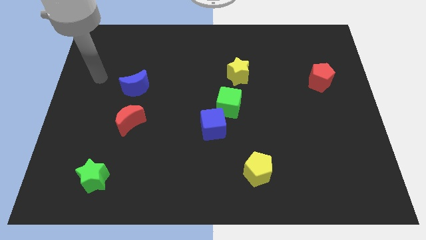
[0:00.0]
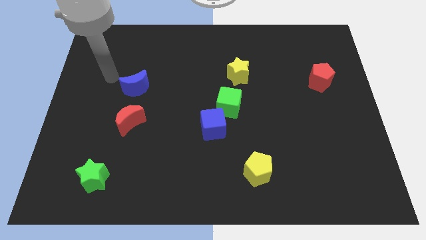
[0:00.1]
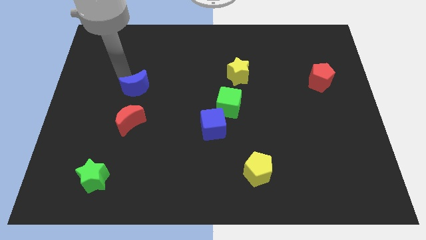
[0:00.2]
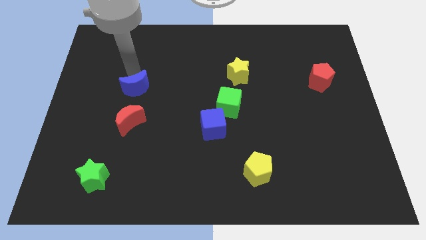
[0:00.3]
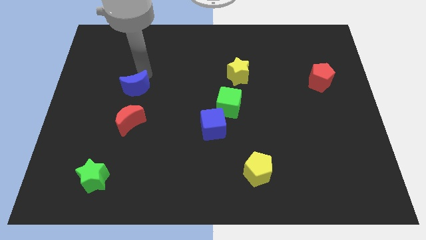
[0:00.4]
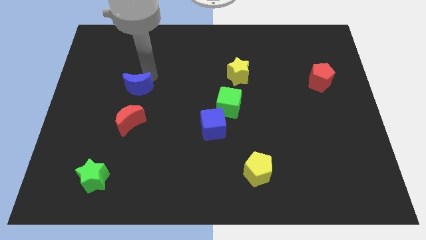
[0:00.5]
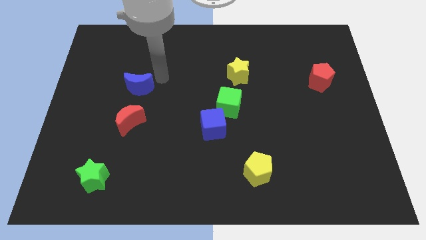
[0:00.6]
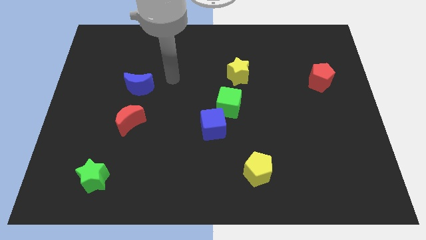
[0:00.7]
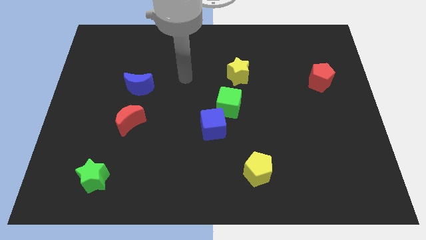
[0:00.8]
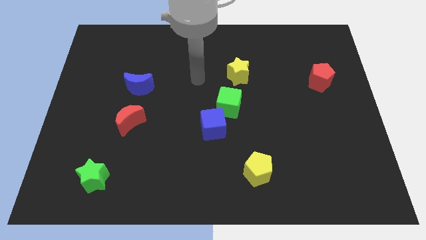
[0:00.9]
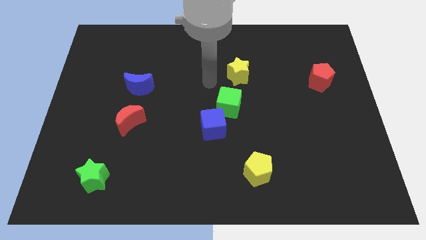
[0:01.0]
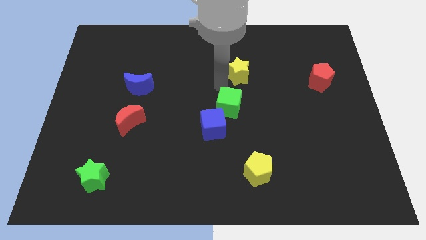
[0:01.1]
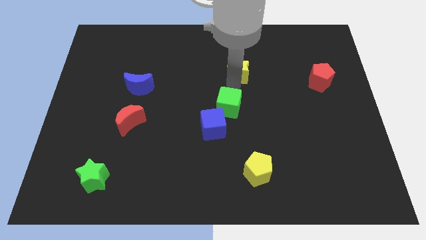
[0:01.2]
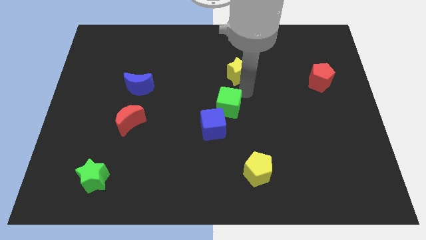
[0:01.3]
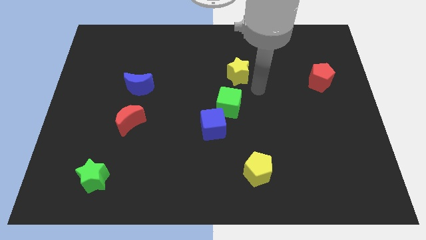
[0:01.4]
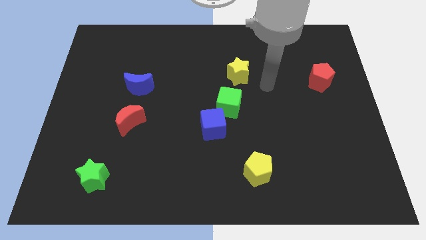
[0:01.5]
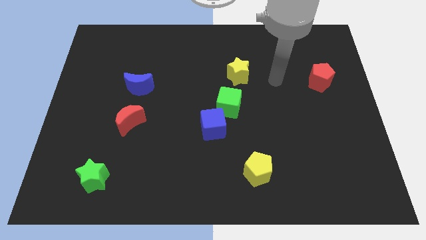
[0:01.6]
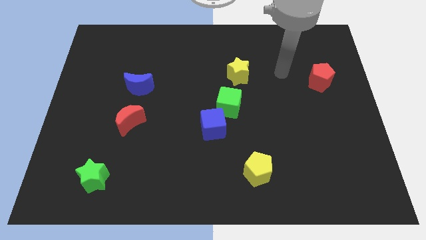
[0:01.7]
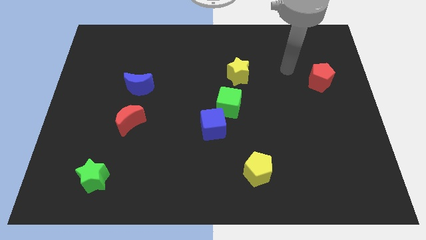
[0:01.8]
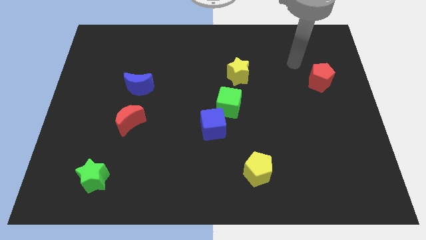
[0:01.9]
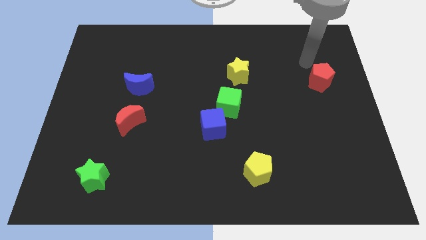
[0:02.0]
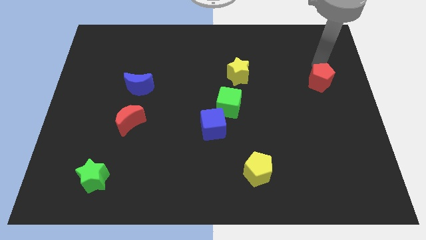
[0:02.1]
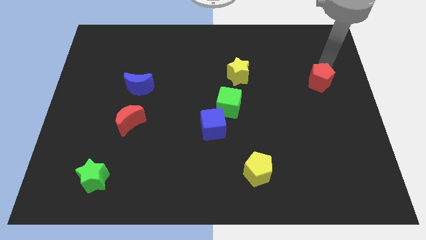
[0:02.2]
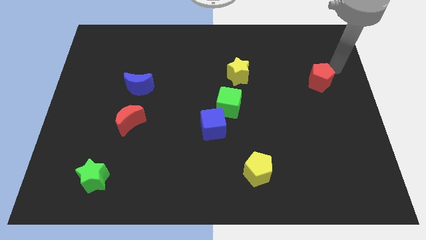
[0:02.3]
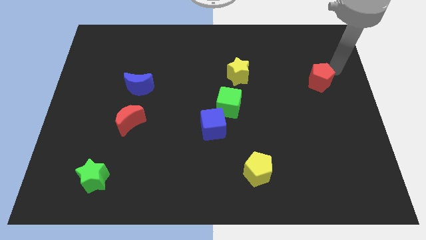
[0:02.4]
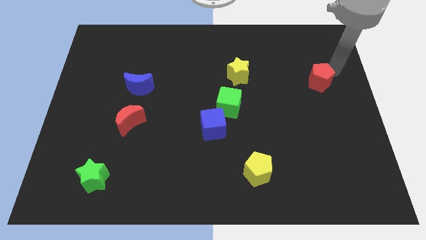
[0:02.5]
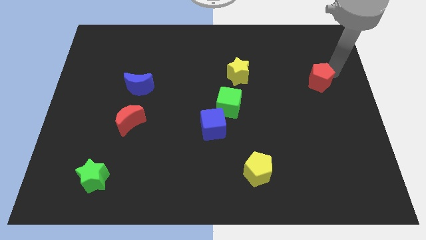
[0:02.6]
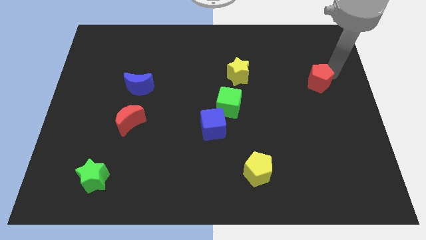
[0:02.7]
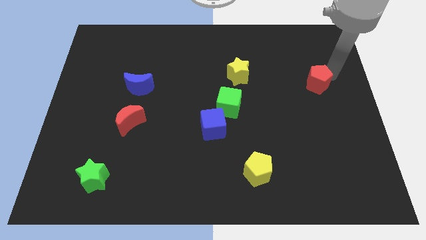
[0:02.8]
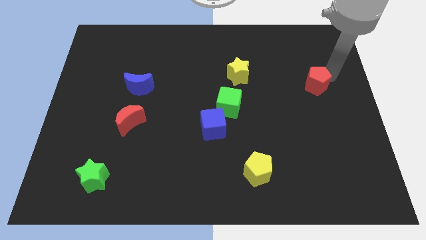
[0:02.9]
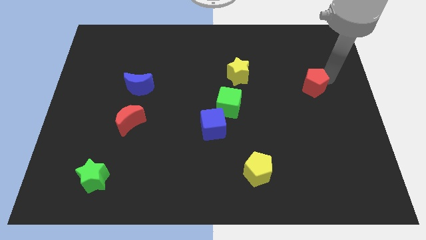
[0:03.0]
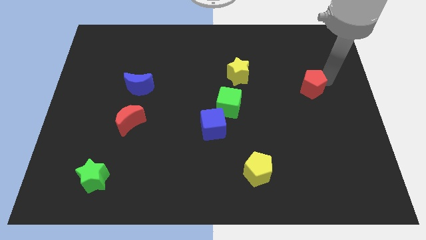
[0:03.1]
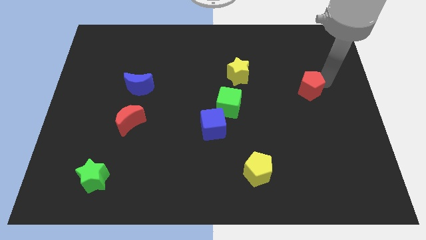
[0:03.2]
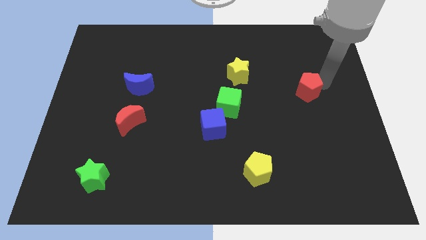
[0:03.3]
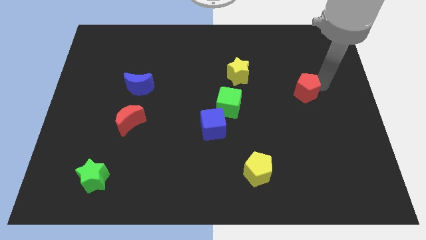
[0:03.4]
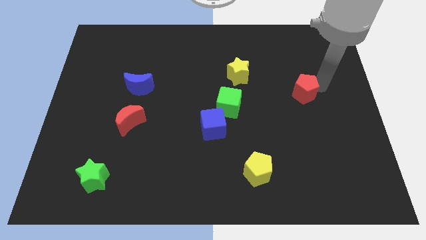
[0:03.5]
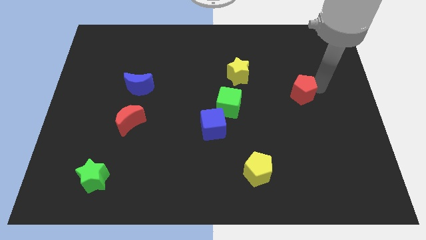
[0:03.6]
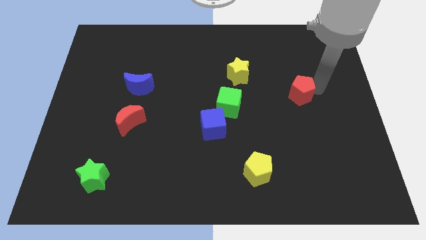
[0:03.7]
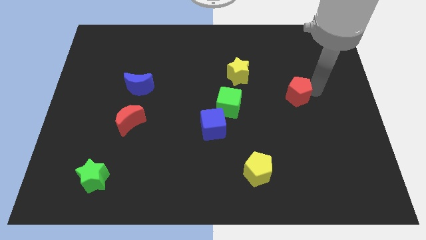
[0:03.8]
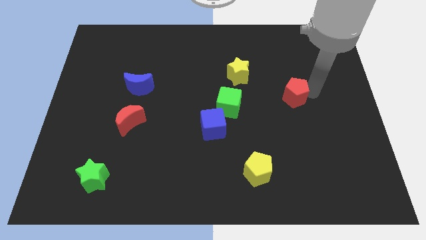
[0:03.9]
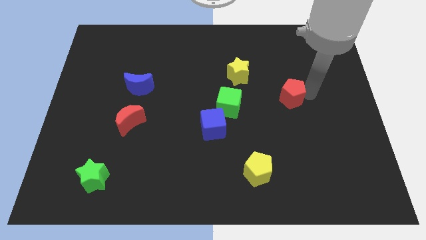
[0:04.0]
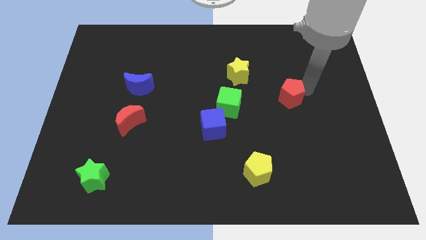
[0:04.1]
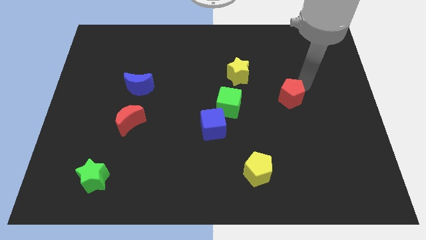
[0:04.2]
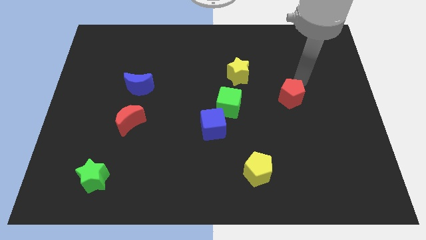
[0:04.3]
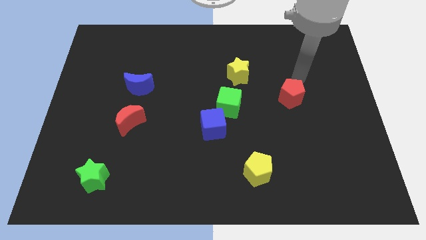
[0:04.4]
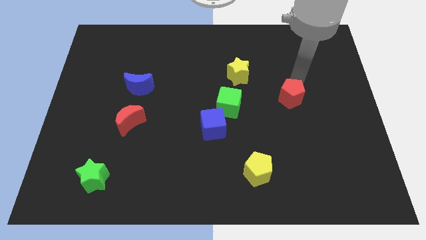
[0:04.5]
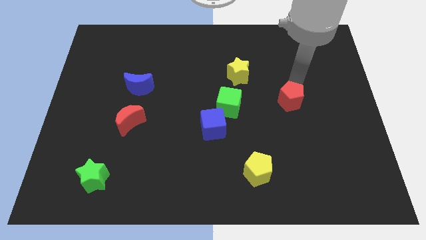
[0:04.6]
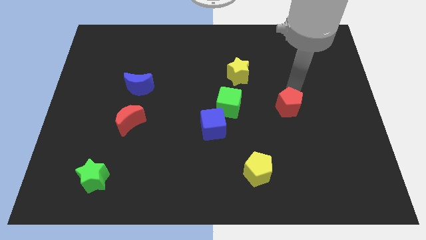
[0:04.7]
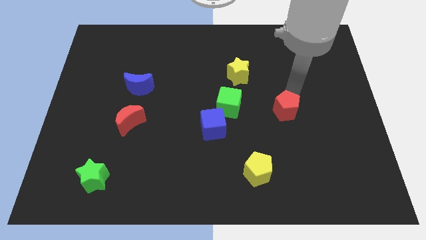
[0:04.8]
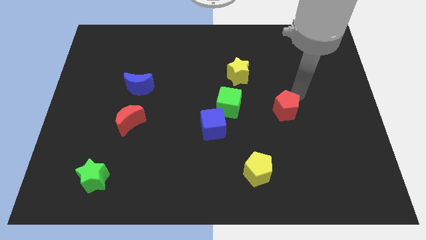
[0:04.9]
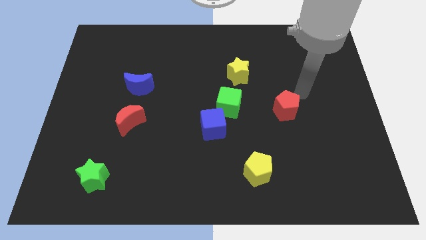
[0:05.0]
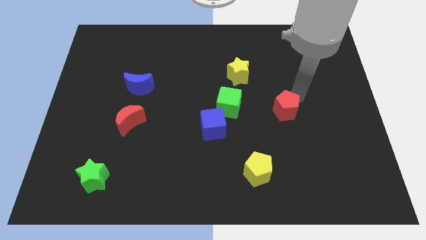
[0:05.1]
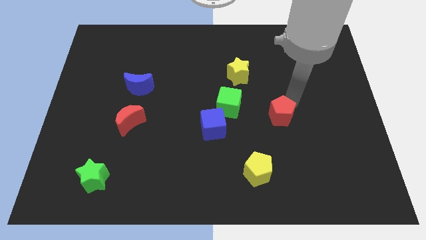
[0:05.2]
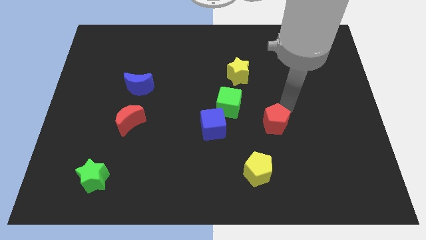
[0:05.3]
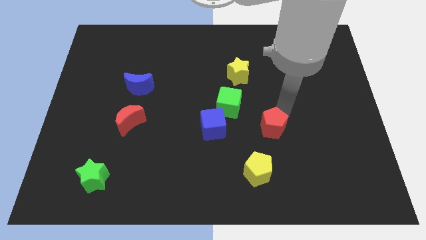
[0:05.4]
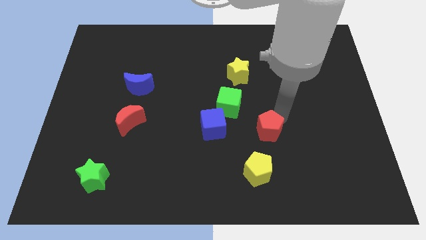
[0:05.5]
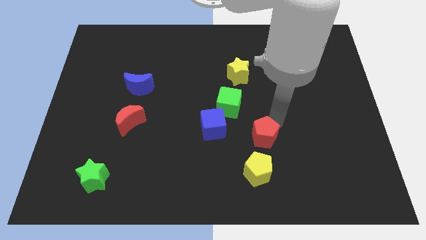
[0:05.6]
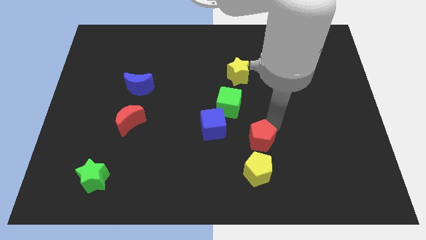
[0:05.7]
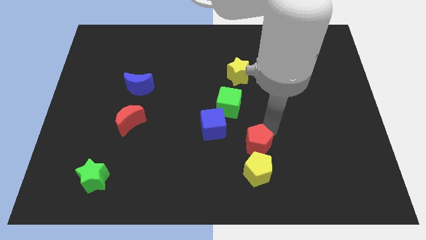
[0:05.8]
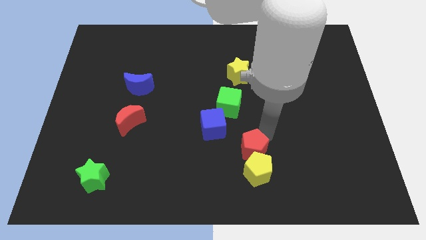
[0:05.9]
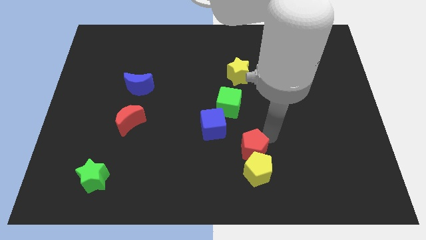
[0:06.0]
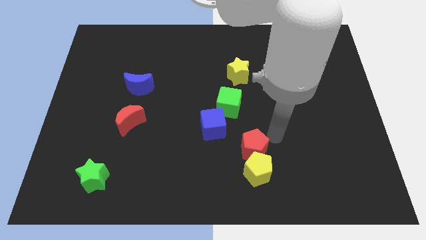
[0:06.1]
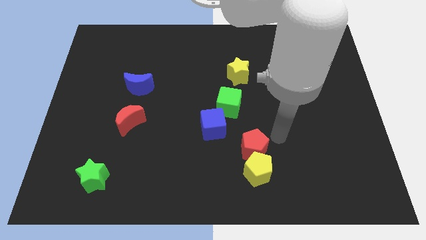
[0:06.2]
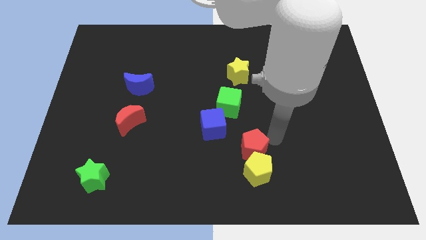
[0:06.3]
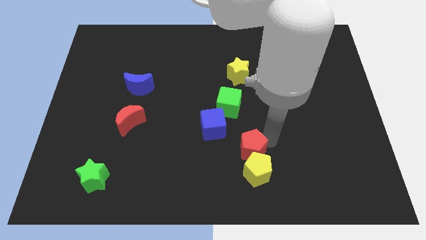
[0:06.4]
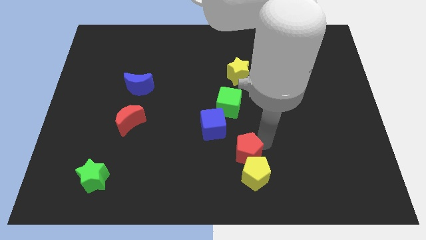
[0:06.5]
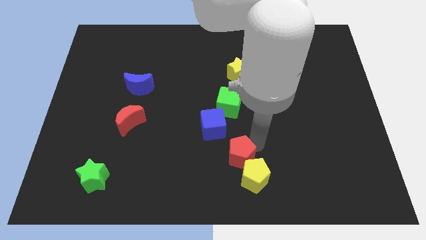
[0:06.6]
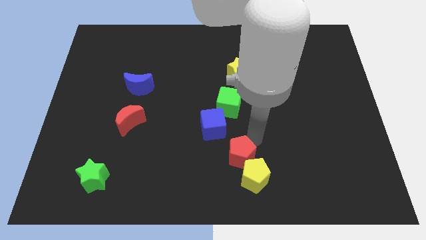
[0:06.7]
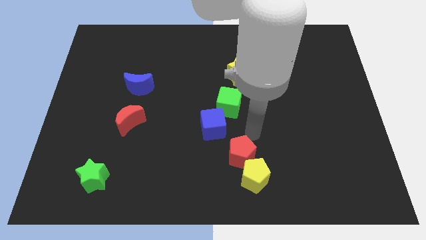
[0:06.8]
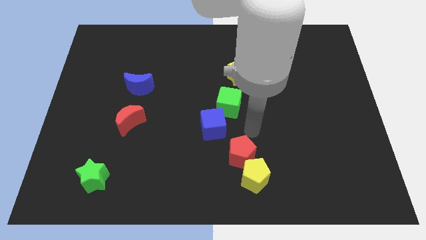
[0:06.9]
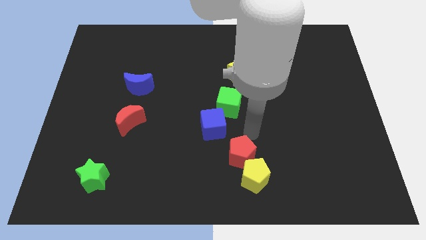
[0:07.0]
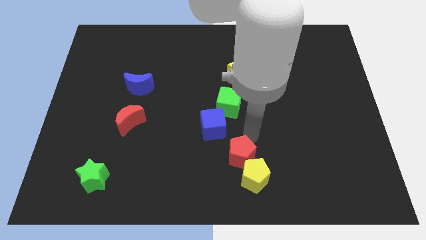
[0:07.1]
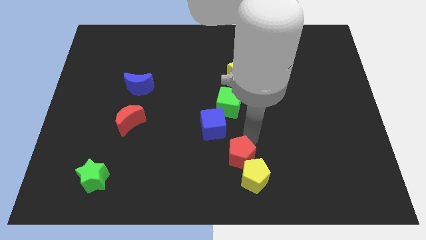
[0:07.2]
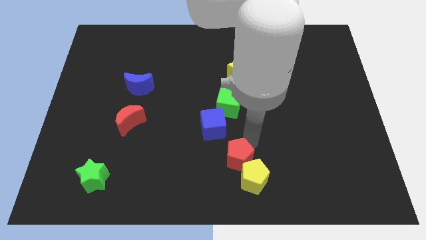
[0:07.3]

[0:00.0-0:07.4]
put the red pentagon to the bottom side
